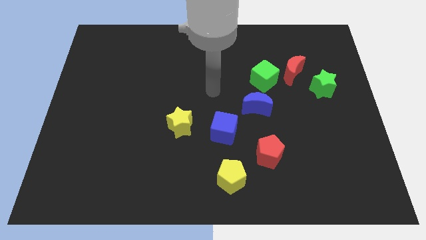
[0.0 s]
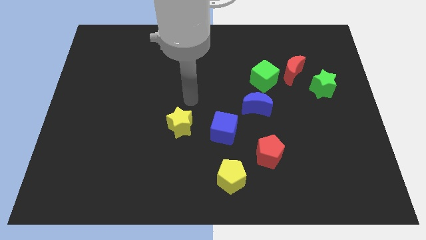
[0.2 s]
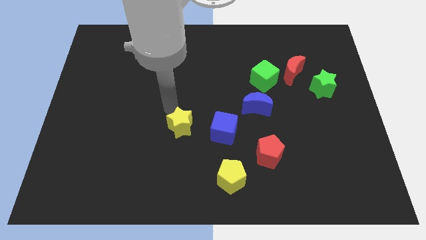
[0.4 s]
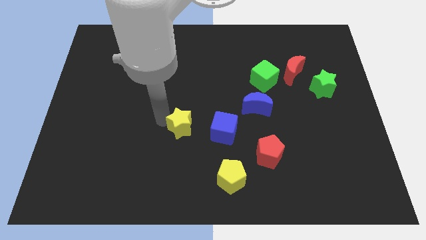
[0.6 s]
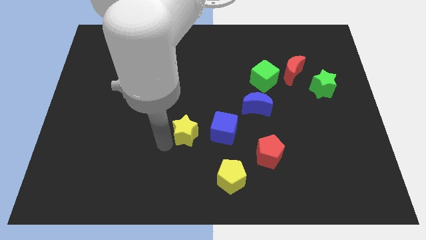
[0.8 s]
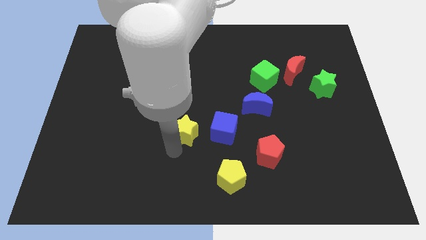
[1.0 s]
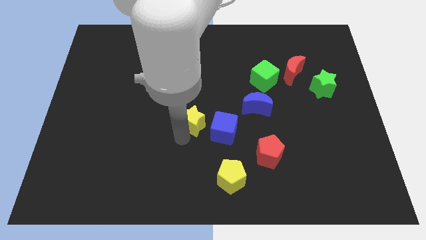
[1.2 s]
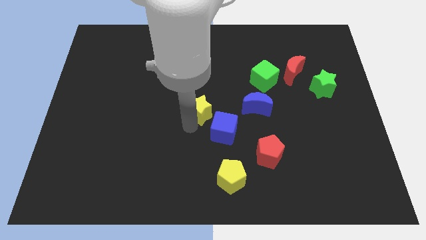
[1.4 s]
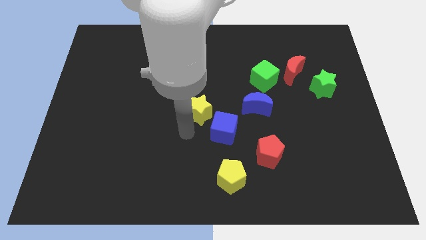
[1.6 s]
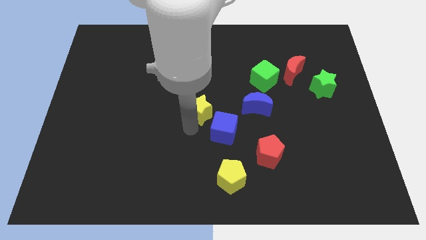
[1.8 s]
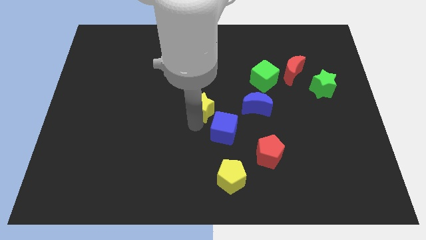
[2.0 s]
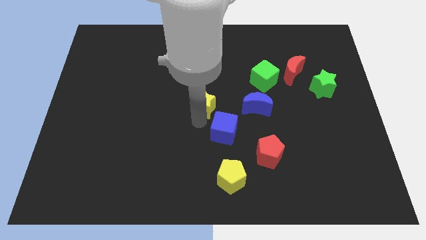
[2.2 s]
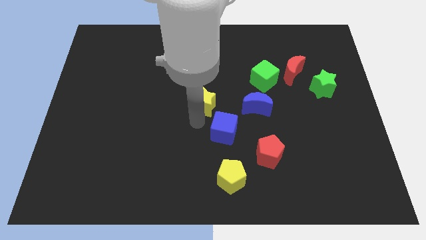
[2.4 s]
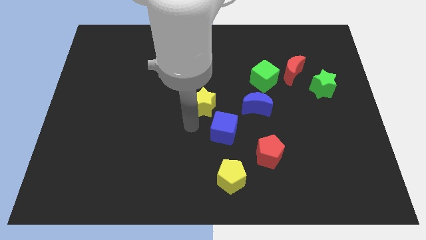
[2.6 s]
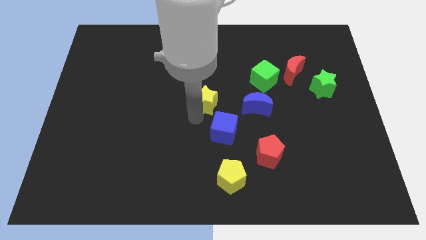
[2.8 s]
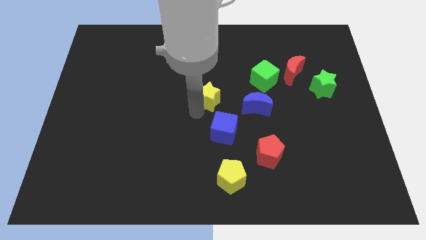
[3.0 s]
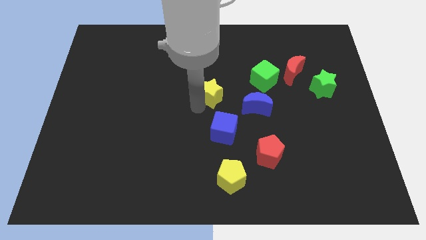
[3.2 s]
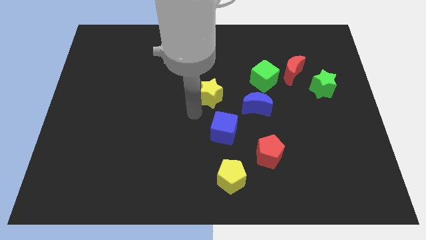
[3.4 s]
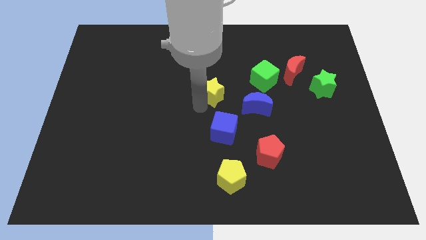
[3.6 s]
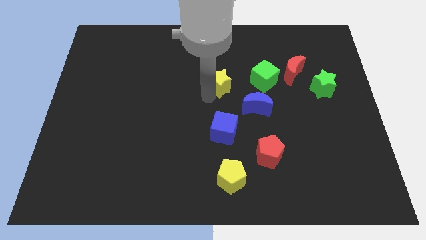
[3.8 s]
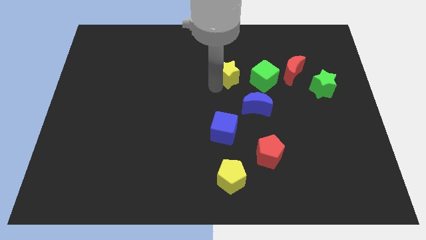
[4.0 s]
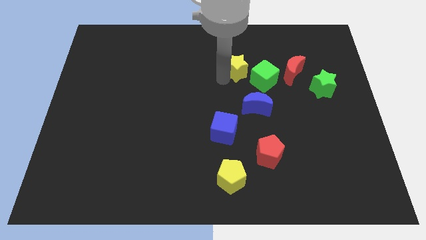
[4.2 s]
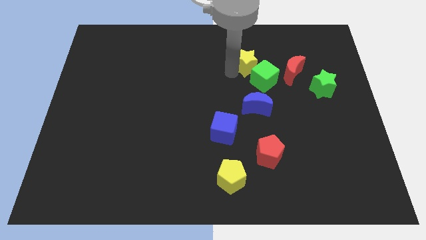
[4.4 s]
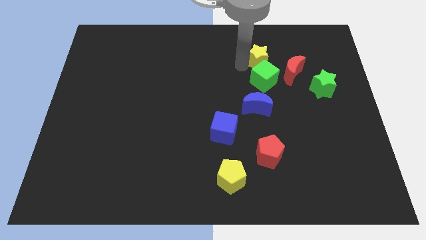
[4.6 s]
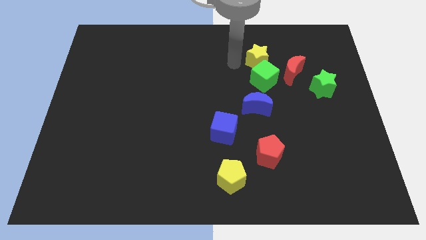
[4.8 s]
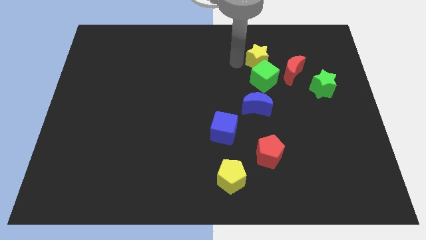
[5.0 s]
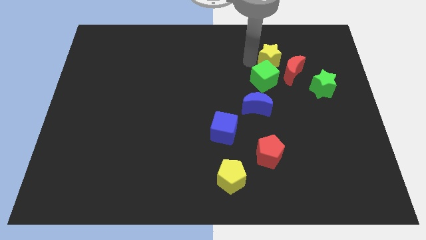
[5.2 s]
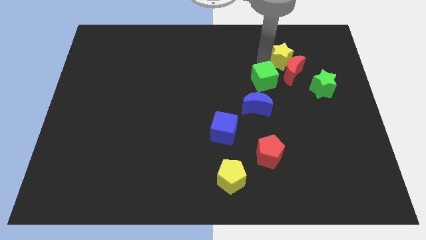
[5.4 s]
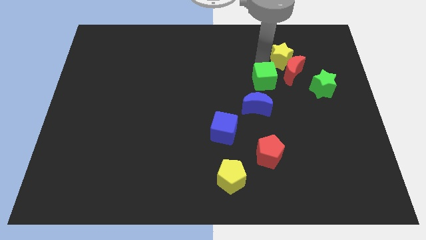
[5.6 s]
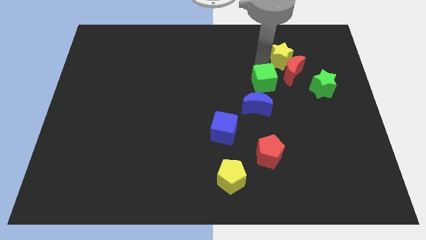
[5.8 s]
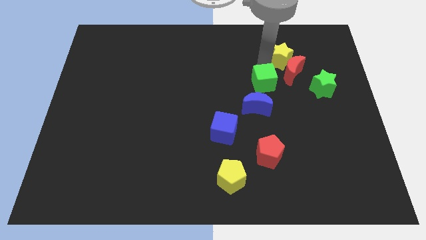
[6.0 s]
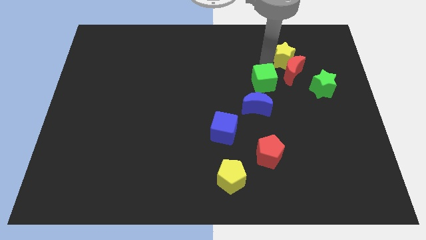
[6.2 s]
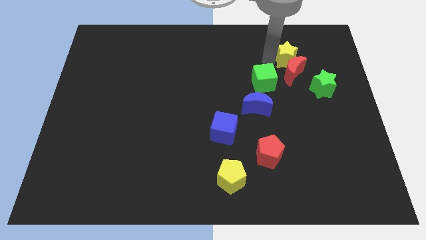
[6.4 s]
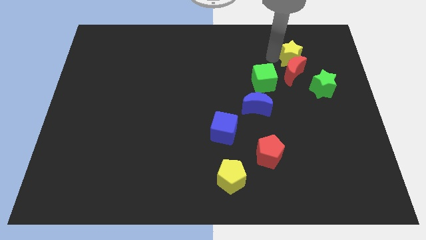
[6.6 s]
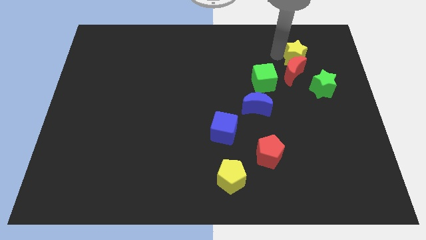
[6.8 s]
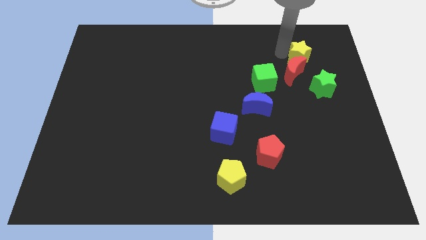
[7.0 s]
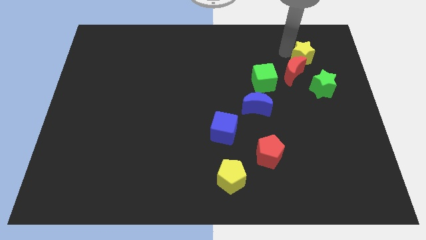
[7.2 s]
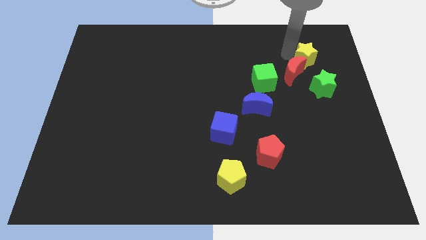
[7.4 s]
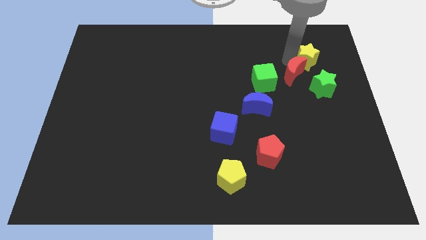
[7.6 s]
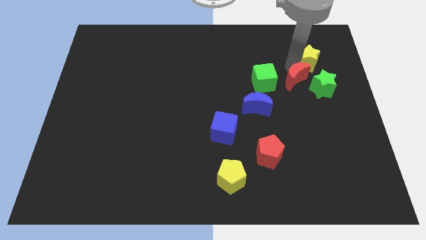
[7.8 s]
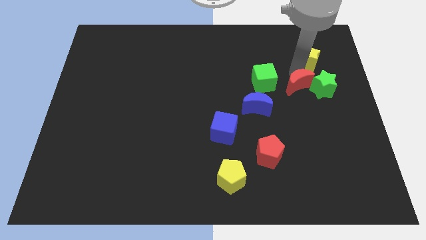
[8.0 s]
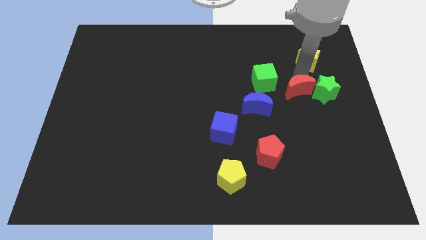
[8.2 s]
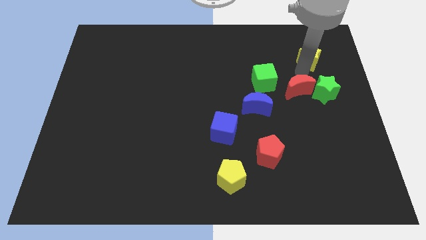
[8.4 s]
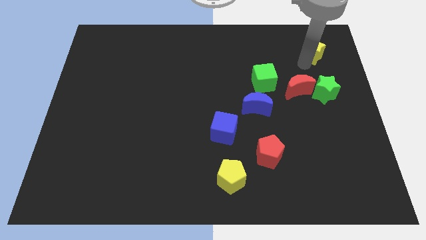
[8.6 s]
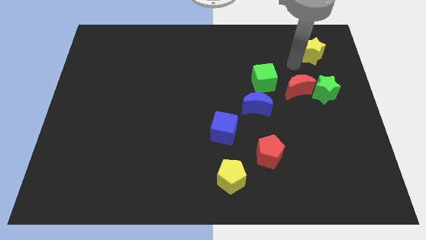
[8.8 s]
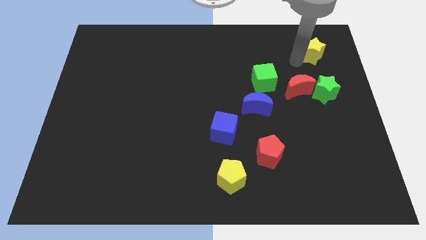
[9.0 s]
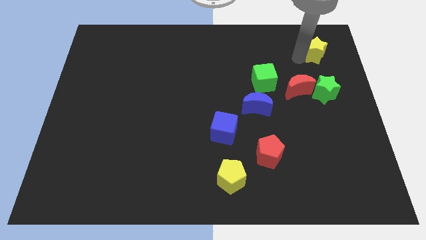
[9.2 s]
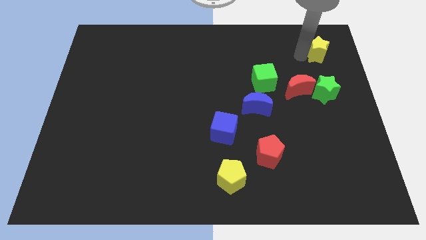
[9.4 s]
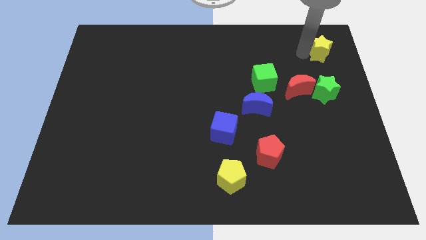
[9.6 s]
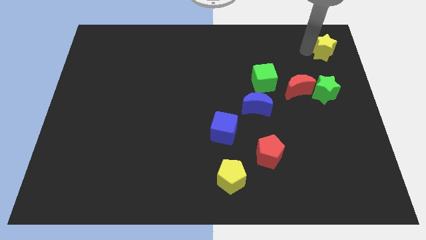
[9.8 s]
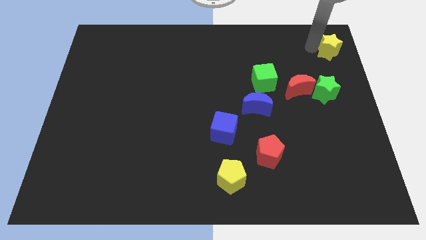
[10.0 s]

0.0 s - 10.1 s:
slide the yellow star to the top right of the board

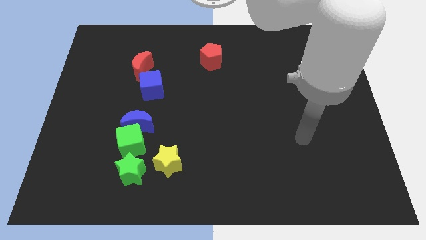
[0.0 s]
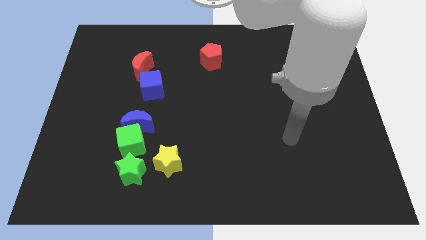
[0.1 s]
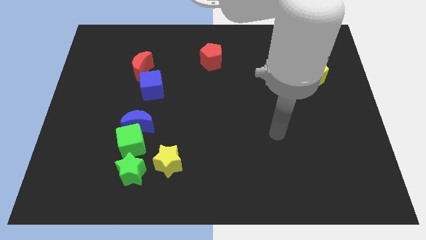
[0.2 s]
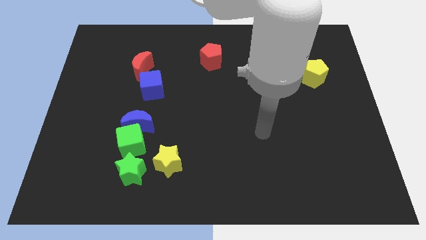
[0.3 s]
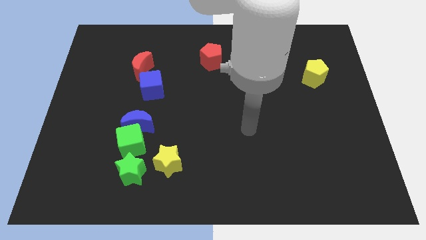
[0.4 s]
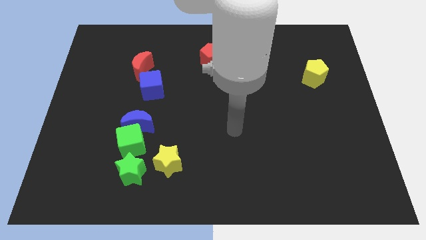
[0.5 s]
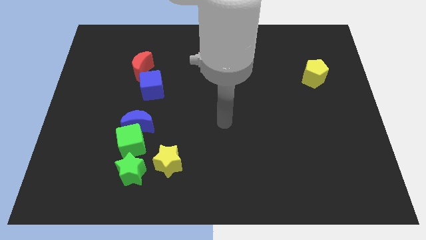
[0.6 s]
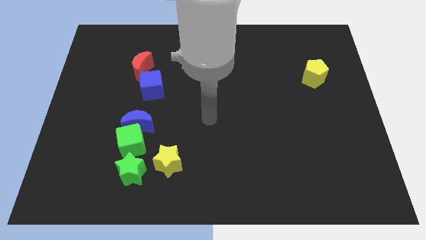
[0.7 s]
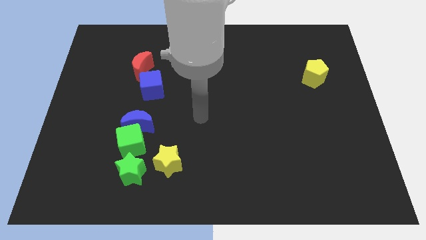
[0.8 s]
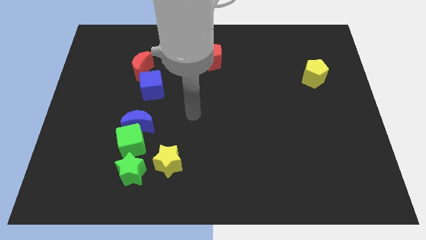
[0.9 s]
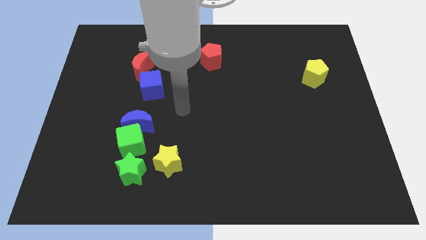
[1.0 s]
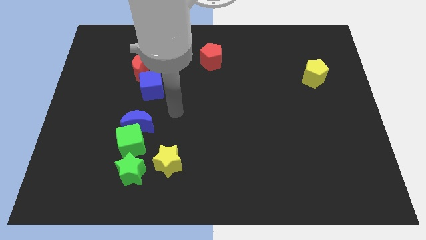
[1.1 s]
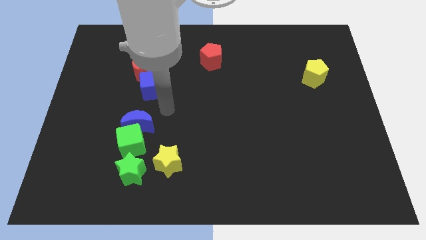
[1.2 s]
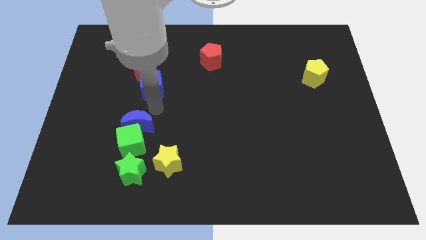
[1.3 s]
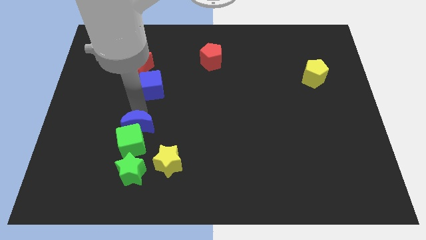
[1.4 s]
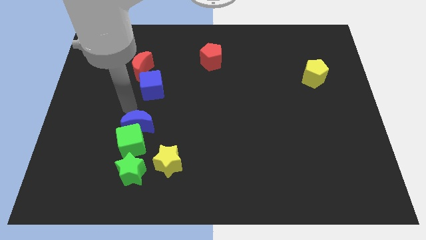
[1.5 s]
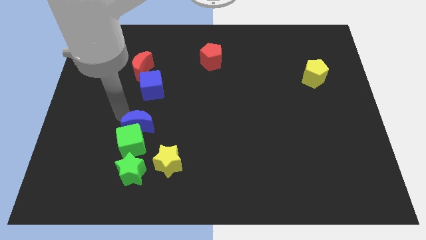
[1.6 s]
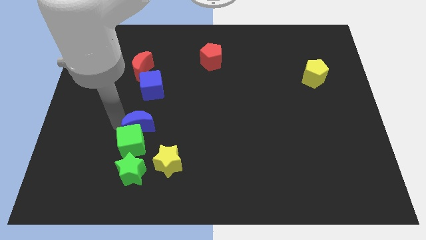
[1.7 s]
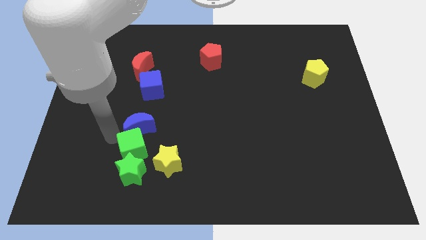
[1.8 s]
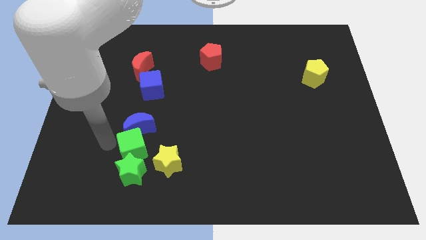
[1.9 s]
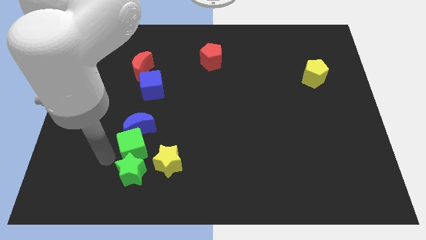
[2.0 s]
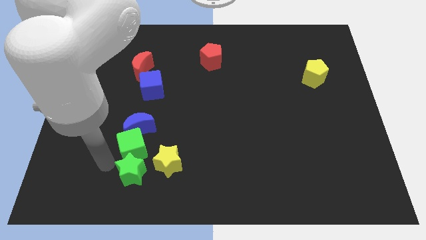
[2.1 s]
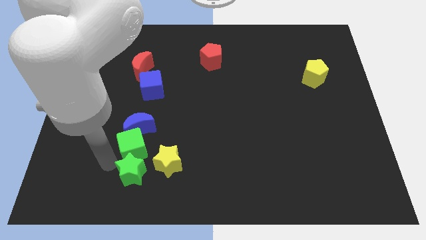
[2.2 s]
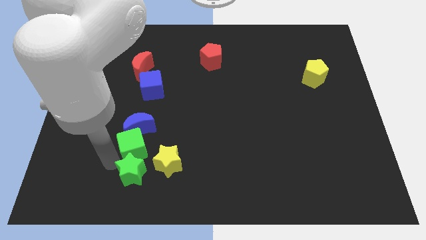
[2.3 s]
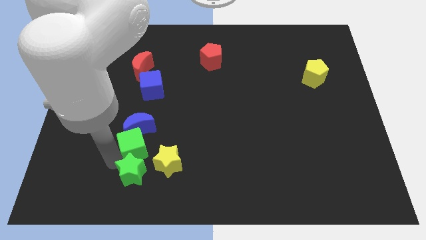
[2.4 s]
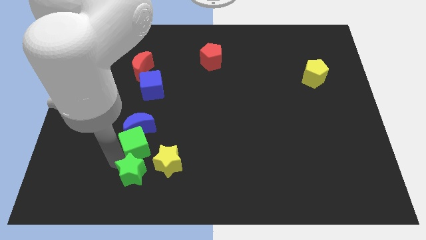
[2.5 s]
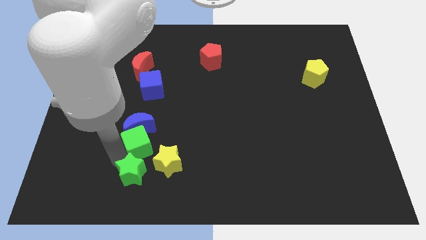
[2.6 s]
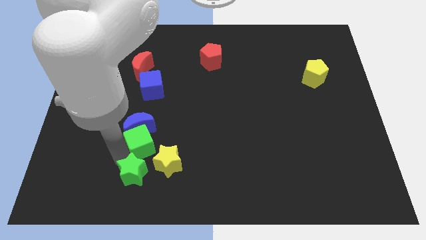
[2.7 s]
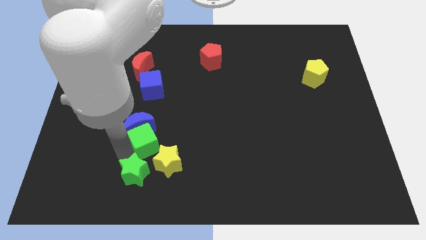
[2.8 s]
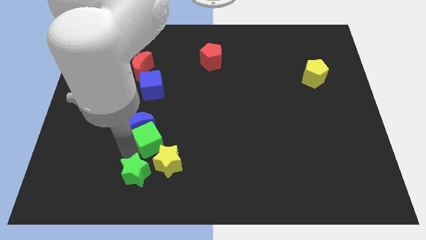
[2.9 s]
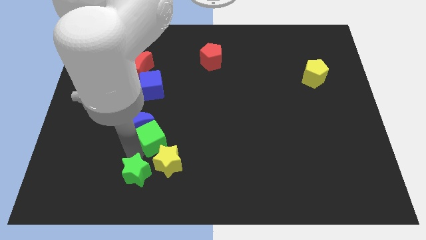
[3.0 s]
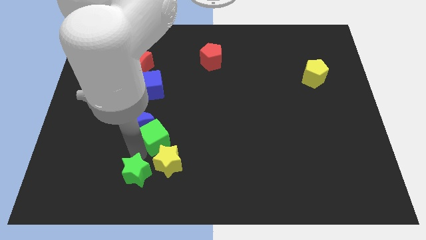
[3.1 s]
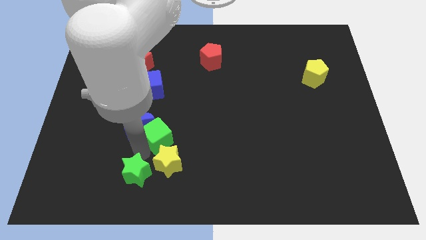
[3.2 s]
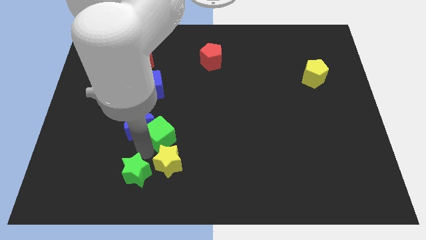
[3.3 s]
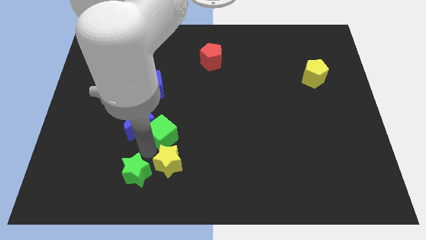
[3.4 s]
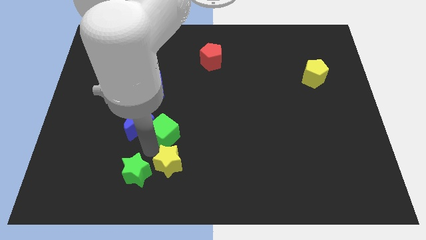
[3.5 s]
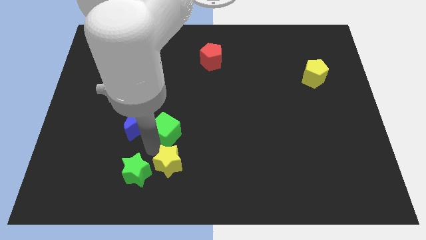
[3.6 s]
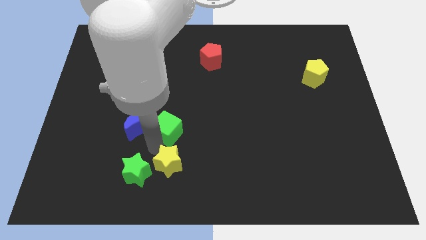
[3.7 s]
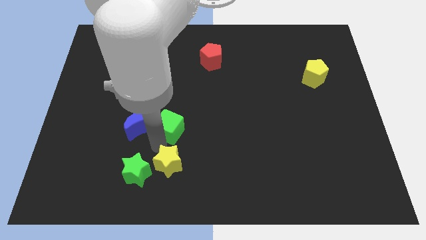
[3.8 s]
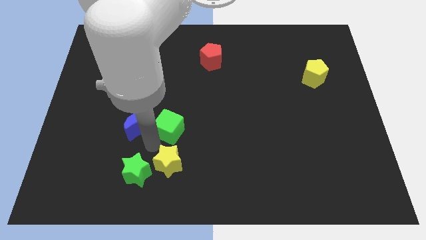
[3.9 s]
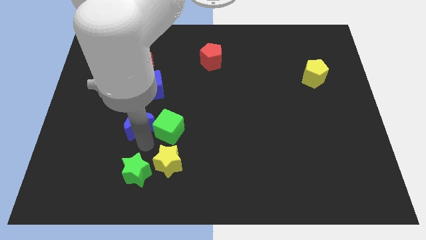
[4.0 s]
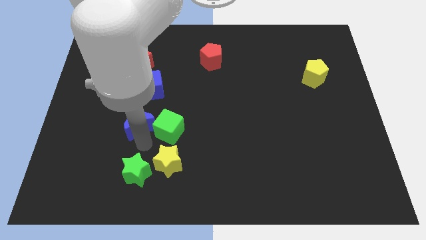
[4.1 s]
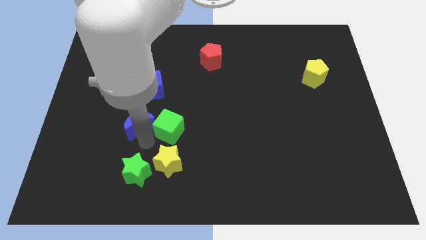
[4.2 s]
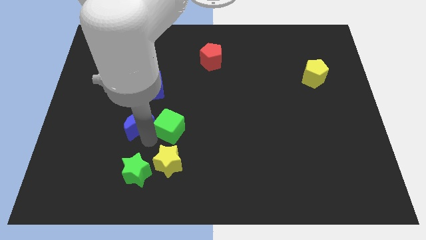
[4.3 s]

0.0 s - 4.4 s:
move the green cube to the middle of the board
